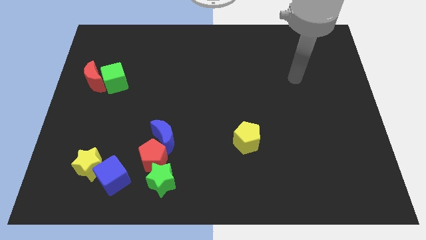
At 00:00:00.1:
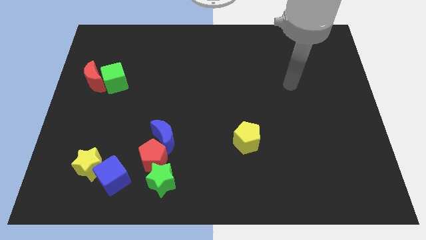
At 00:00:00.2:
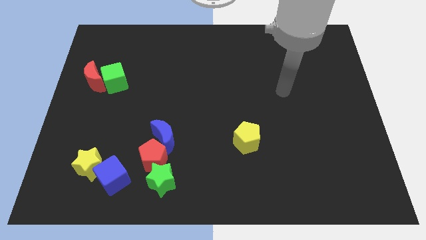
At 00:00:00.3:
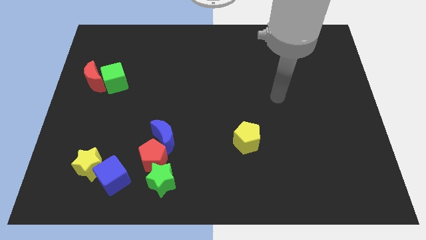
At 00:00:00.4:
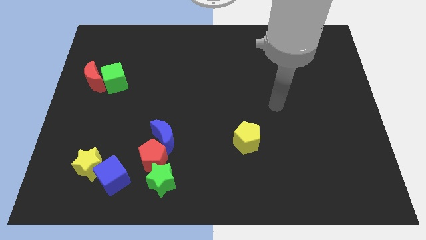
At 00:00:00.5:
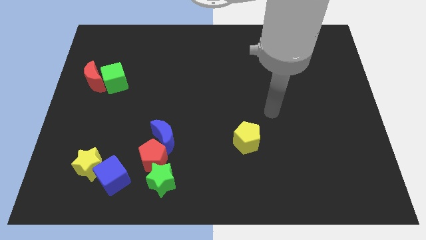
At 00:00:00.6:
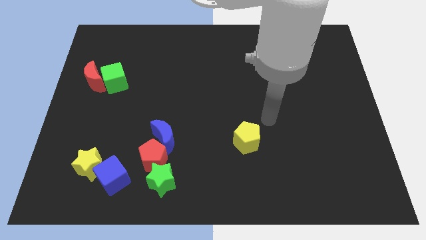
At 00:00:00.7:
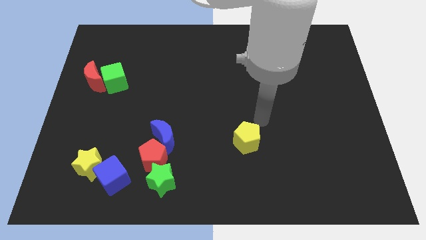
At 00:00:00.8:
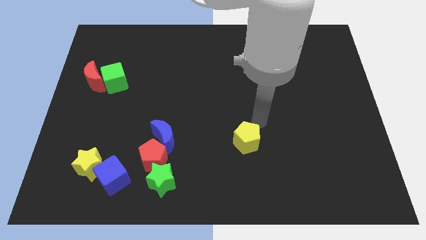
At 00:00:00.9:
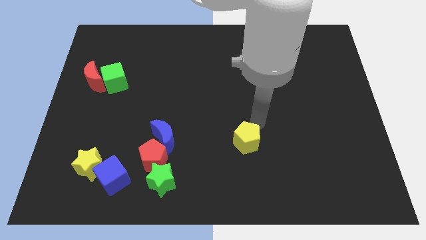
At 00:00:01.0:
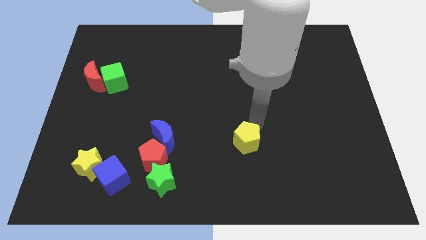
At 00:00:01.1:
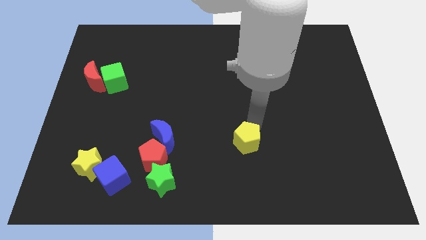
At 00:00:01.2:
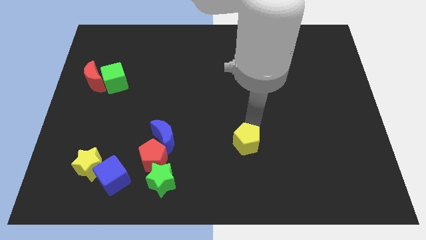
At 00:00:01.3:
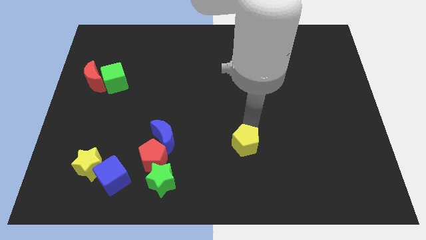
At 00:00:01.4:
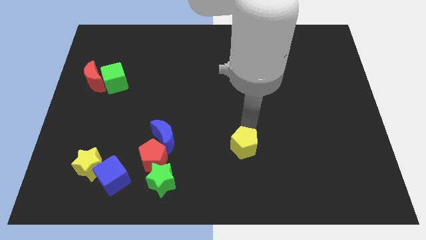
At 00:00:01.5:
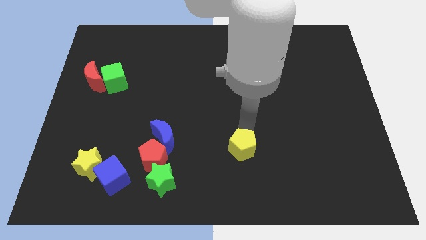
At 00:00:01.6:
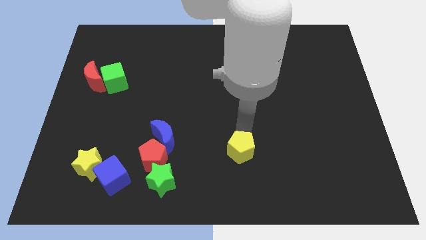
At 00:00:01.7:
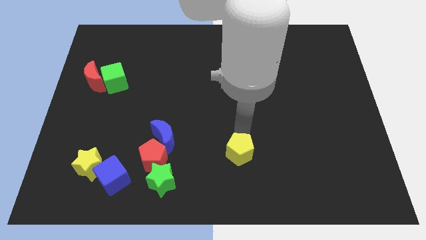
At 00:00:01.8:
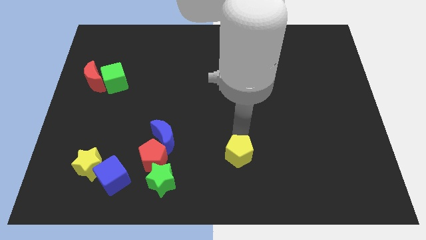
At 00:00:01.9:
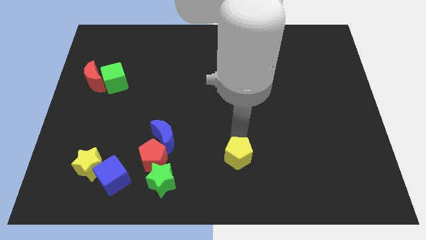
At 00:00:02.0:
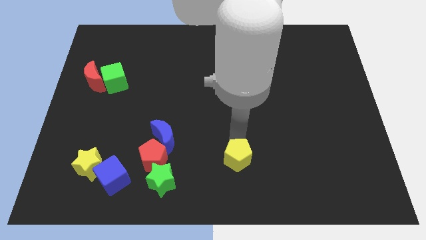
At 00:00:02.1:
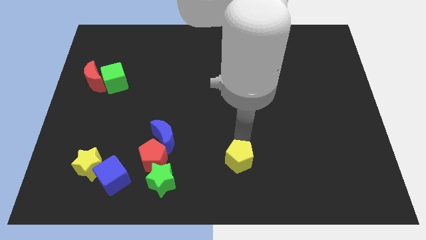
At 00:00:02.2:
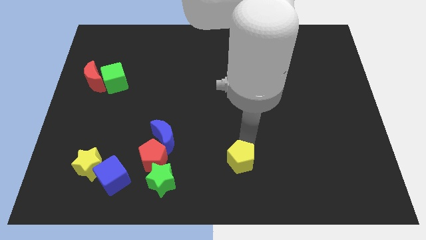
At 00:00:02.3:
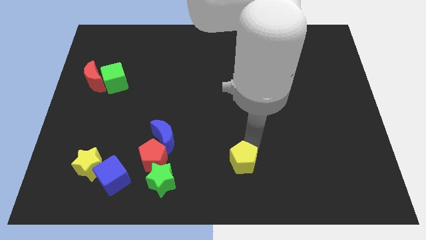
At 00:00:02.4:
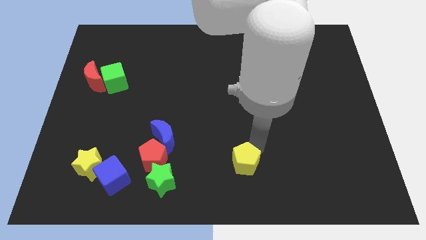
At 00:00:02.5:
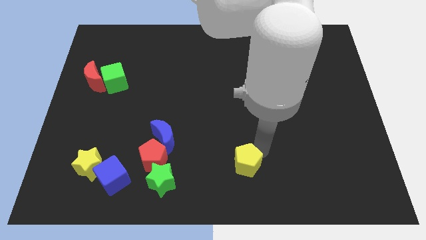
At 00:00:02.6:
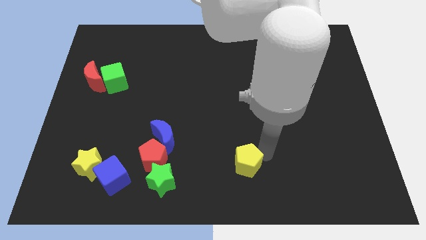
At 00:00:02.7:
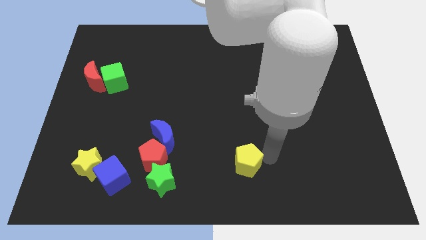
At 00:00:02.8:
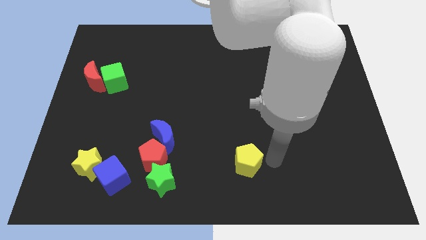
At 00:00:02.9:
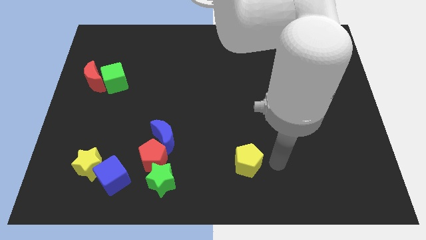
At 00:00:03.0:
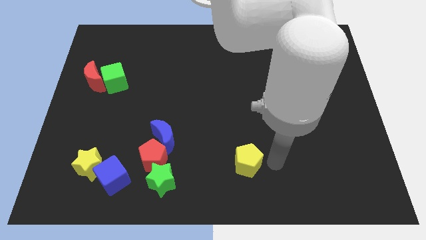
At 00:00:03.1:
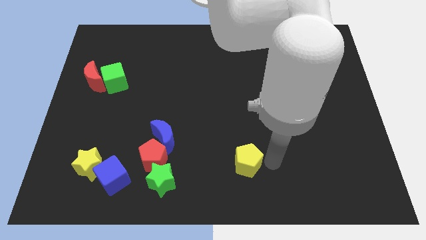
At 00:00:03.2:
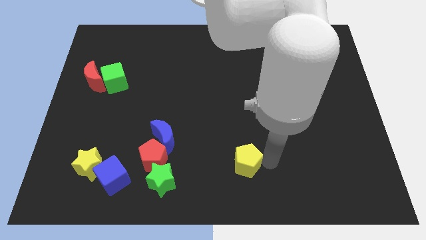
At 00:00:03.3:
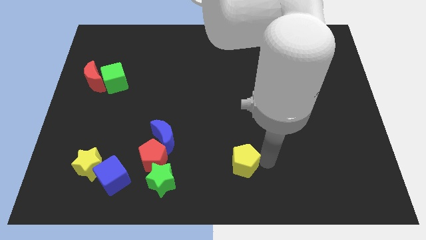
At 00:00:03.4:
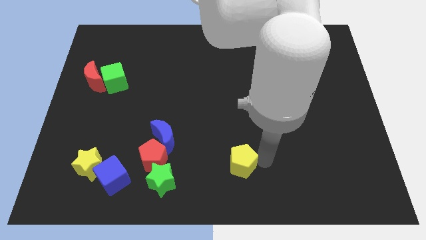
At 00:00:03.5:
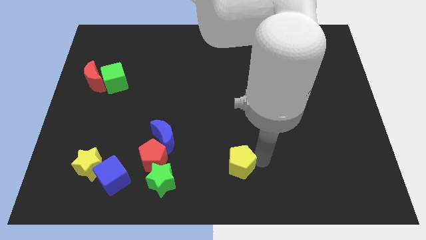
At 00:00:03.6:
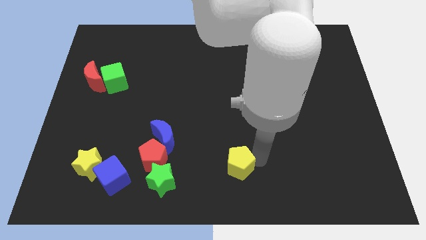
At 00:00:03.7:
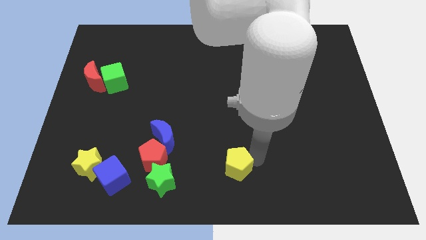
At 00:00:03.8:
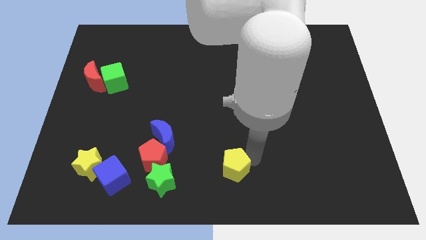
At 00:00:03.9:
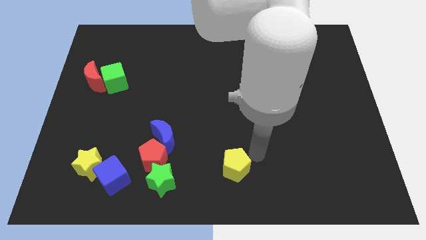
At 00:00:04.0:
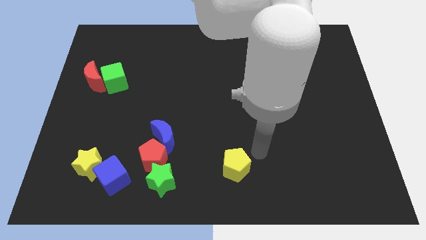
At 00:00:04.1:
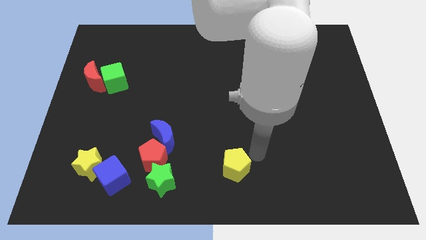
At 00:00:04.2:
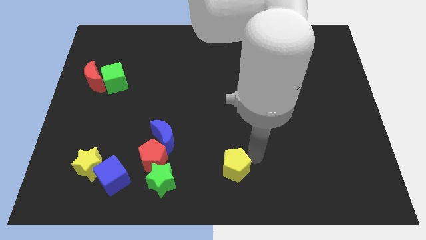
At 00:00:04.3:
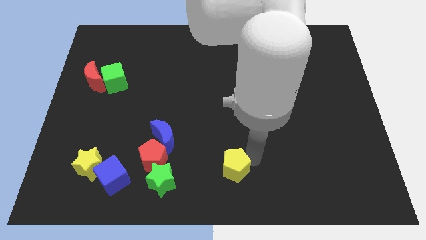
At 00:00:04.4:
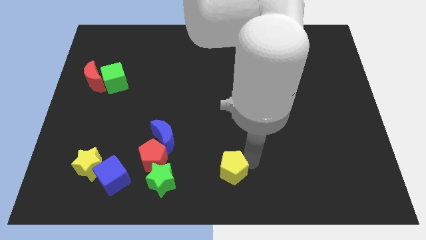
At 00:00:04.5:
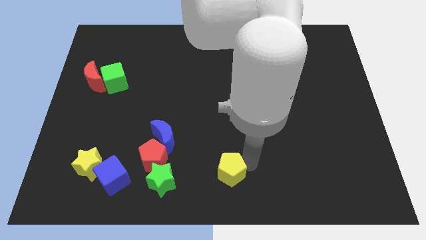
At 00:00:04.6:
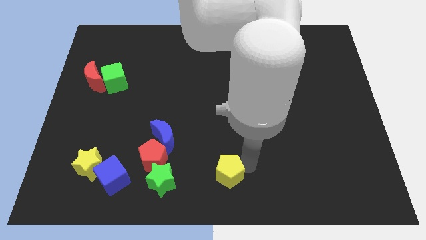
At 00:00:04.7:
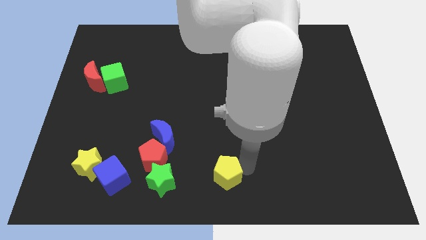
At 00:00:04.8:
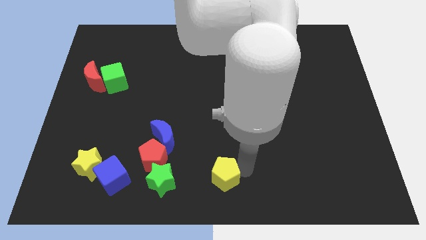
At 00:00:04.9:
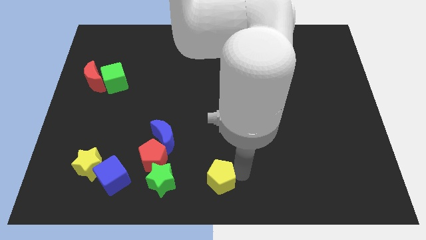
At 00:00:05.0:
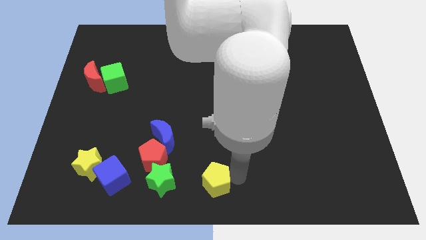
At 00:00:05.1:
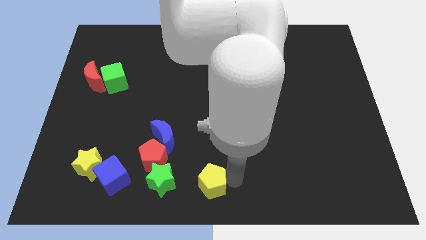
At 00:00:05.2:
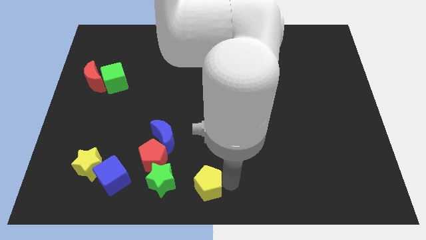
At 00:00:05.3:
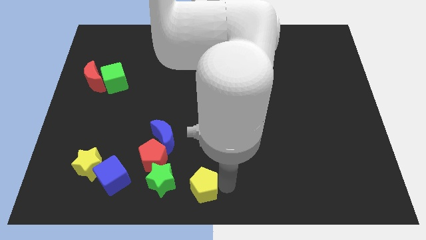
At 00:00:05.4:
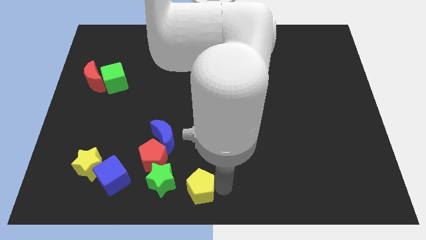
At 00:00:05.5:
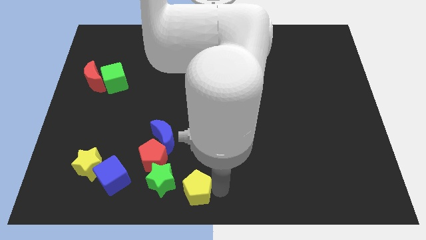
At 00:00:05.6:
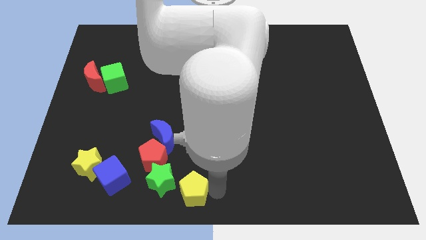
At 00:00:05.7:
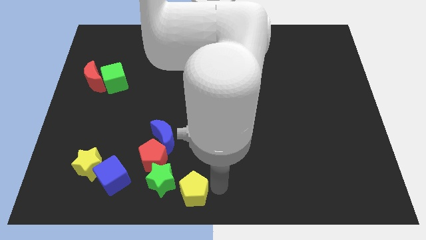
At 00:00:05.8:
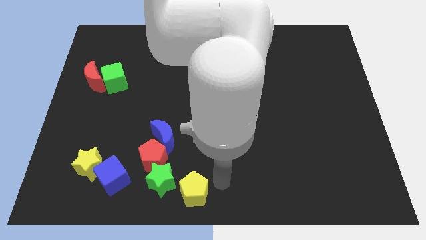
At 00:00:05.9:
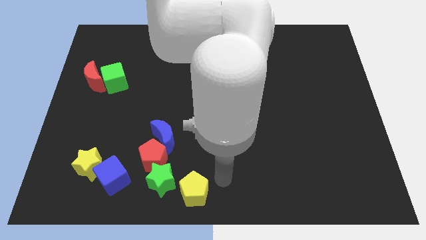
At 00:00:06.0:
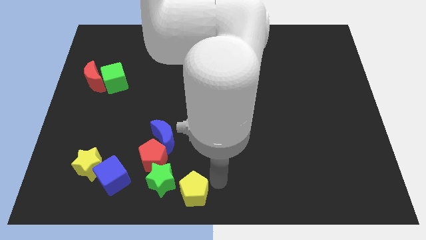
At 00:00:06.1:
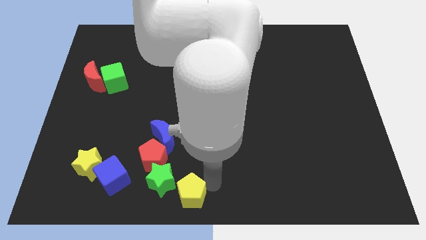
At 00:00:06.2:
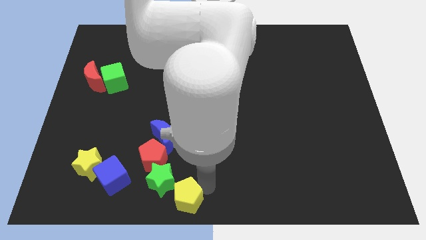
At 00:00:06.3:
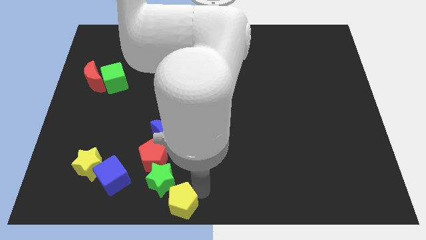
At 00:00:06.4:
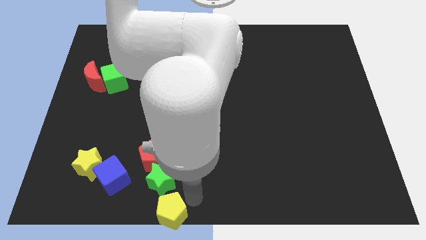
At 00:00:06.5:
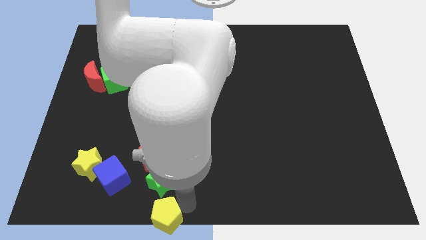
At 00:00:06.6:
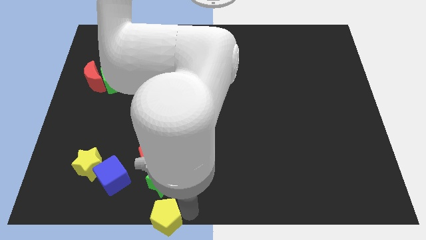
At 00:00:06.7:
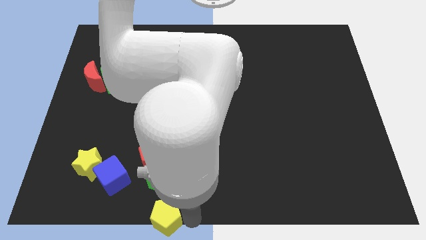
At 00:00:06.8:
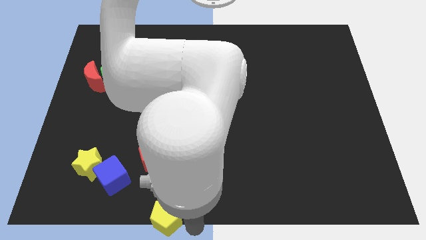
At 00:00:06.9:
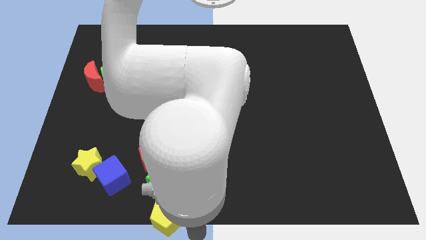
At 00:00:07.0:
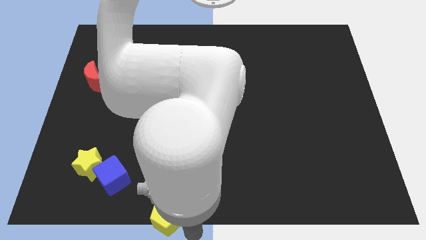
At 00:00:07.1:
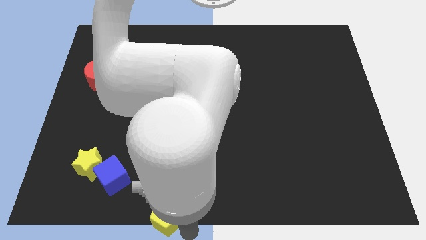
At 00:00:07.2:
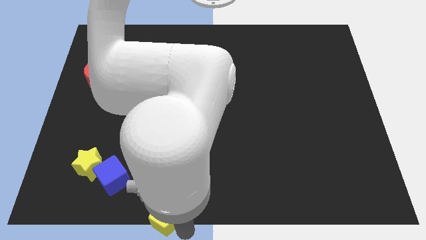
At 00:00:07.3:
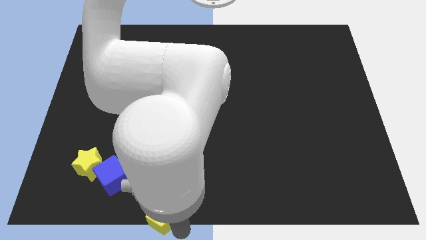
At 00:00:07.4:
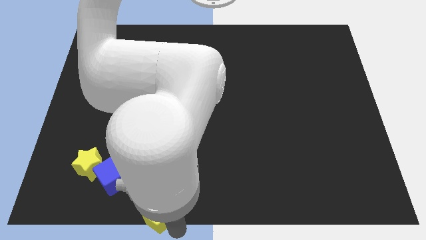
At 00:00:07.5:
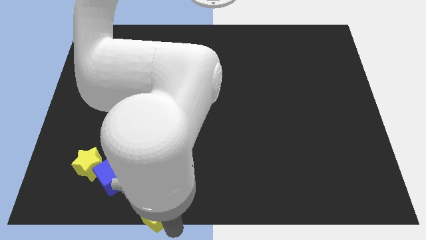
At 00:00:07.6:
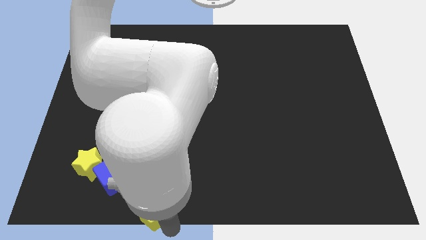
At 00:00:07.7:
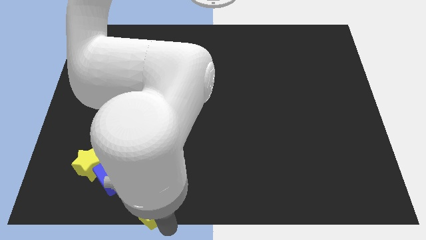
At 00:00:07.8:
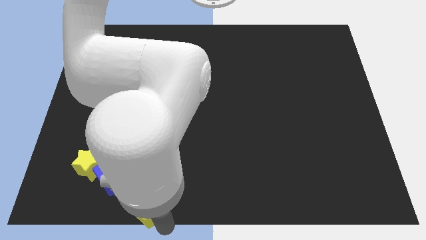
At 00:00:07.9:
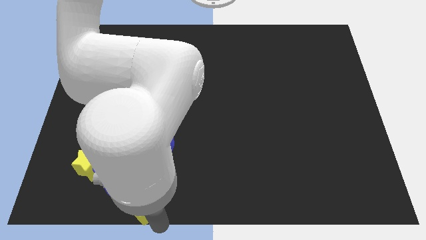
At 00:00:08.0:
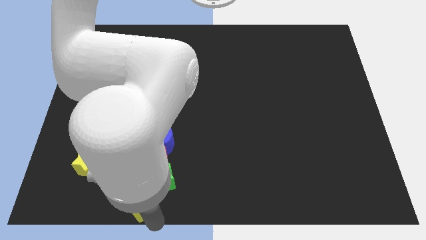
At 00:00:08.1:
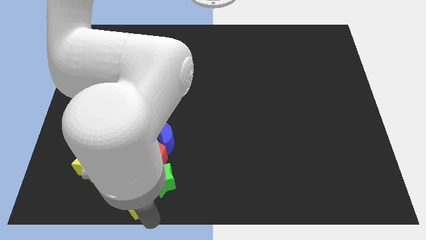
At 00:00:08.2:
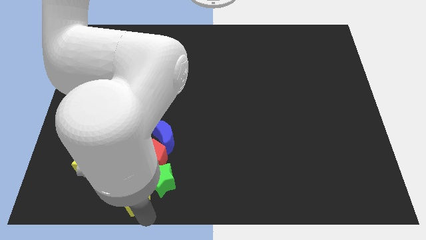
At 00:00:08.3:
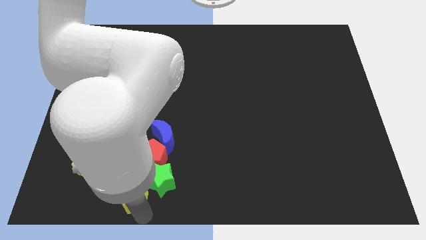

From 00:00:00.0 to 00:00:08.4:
slide the yellow pentagon next to the blue cube
